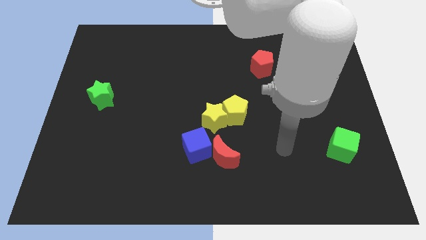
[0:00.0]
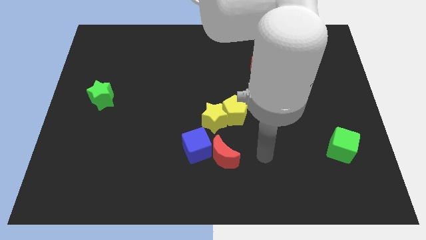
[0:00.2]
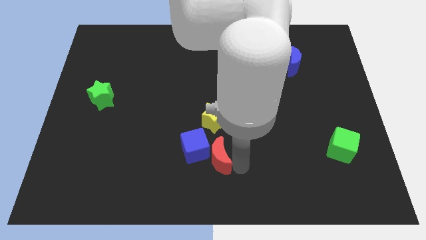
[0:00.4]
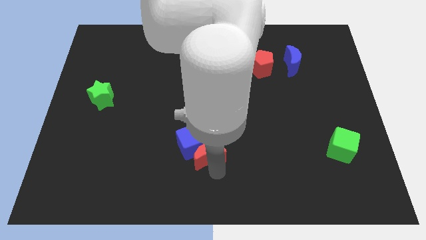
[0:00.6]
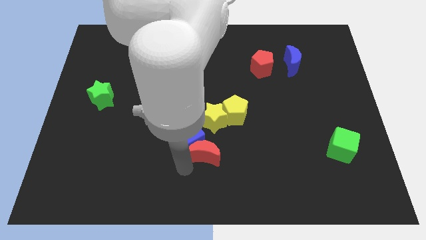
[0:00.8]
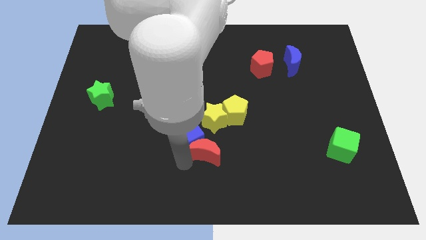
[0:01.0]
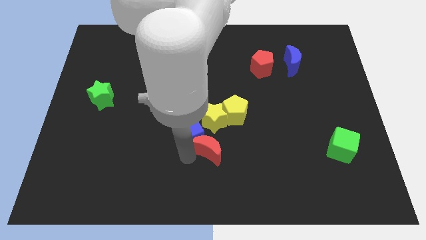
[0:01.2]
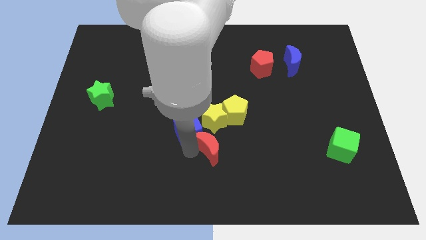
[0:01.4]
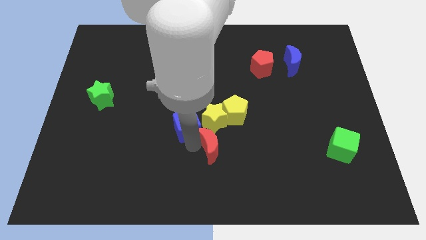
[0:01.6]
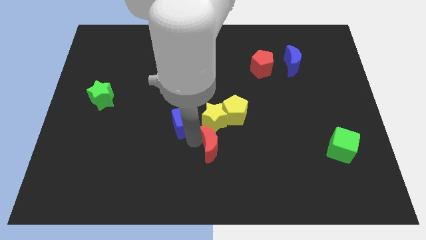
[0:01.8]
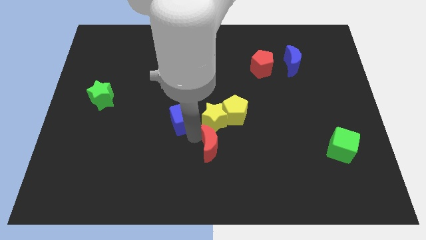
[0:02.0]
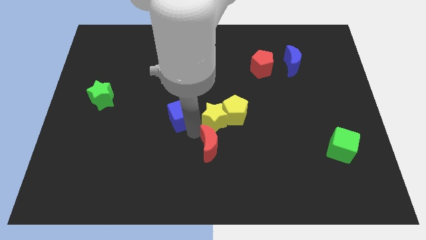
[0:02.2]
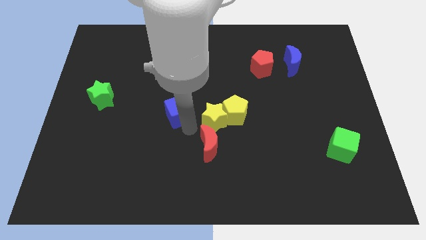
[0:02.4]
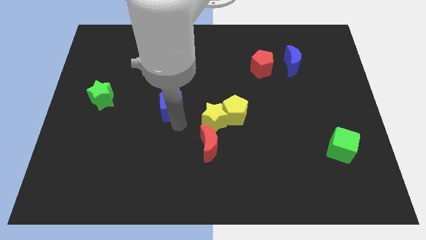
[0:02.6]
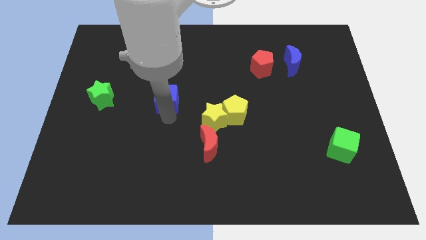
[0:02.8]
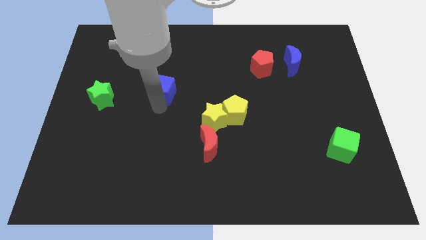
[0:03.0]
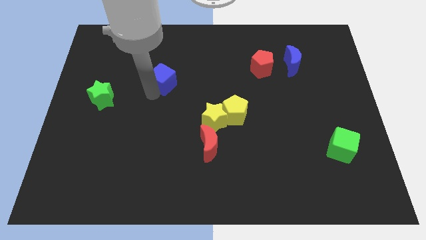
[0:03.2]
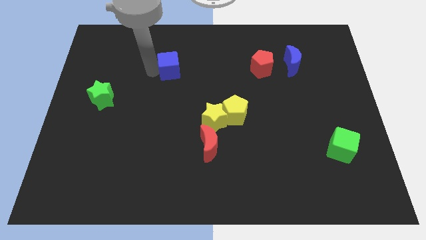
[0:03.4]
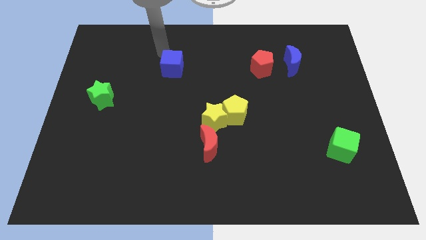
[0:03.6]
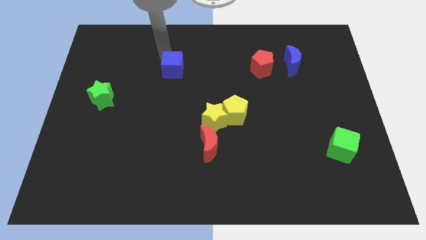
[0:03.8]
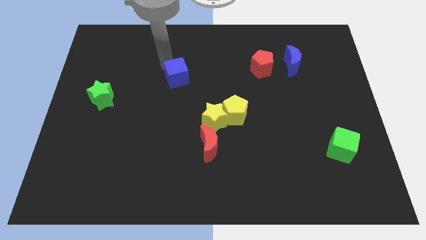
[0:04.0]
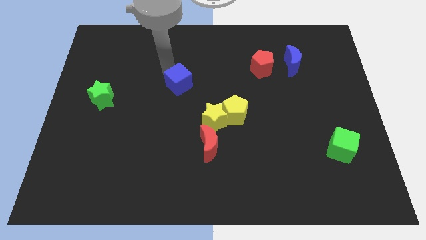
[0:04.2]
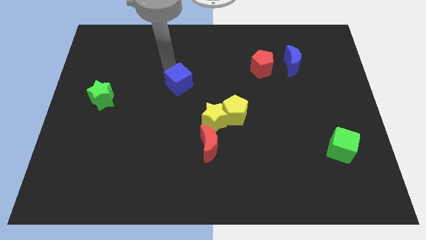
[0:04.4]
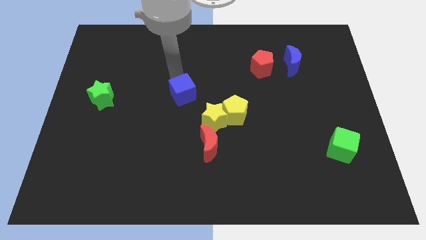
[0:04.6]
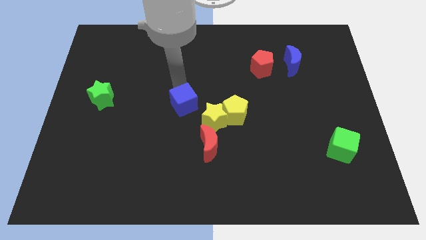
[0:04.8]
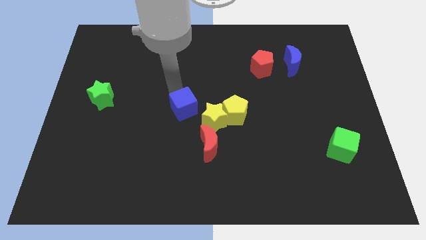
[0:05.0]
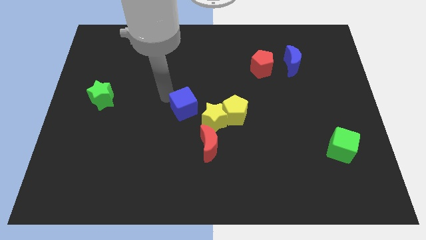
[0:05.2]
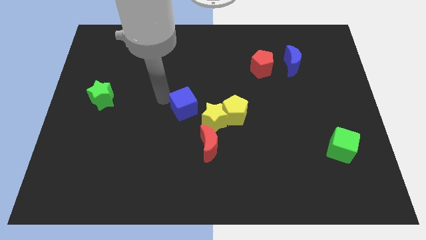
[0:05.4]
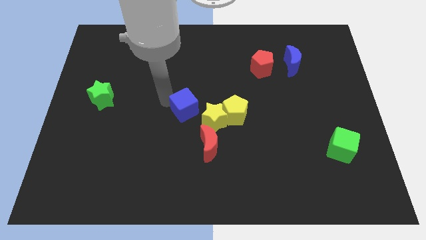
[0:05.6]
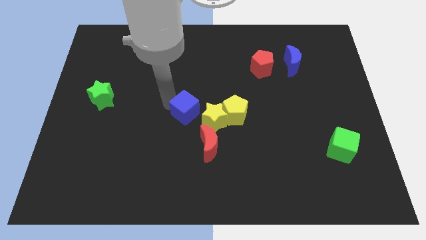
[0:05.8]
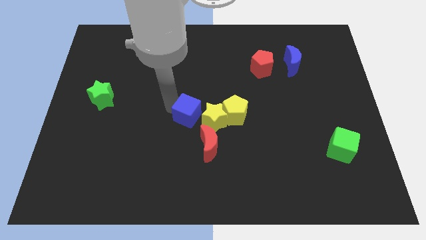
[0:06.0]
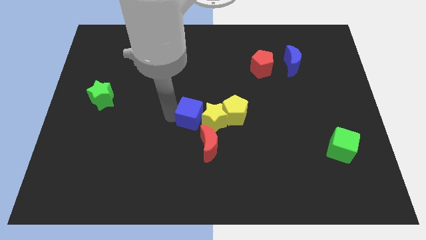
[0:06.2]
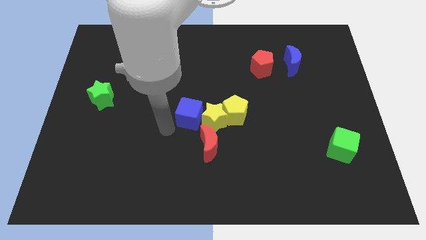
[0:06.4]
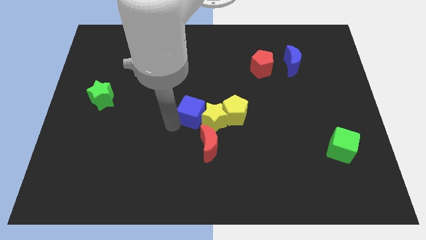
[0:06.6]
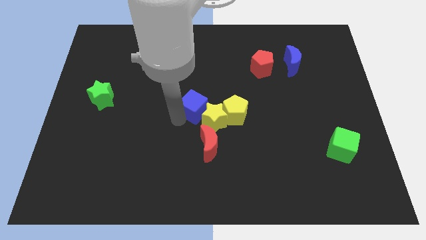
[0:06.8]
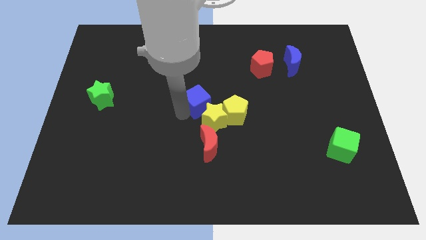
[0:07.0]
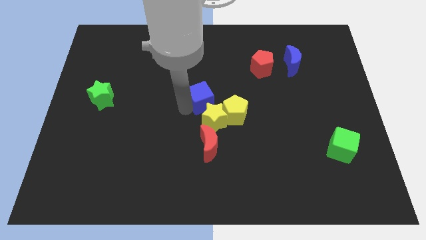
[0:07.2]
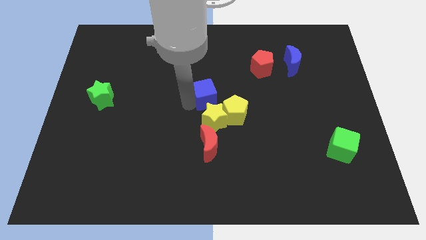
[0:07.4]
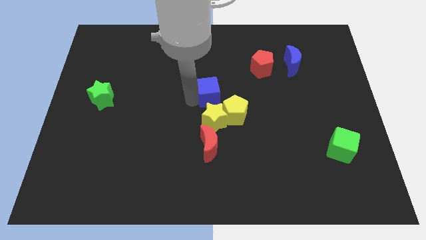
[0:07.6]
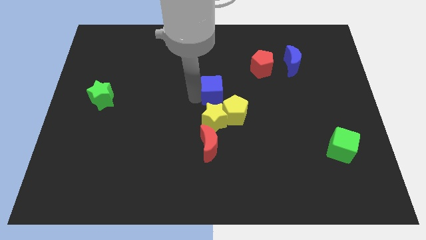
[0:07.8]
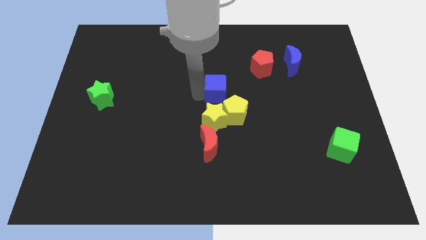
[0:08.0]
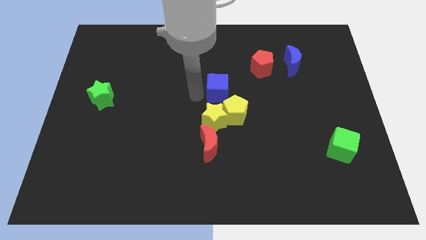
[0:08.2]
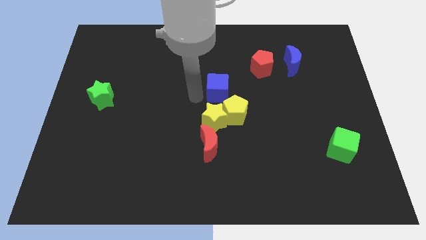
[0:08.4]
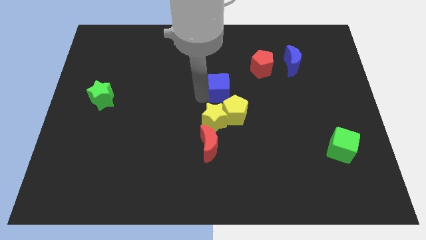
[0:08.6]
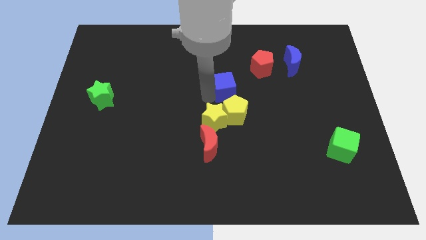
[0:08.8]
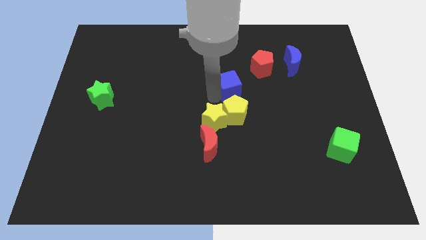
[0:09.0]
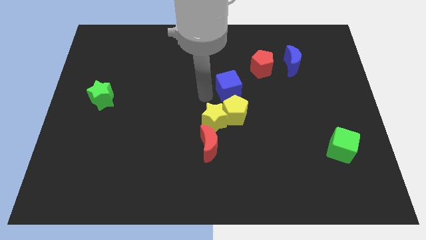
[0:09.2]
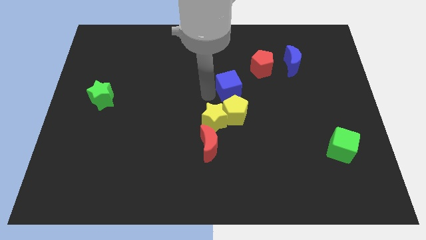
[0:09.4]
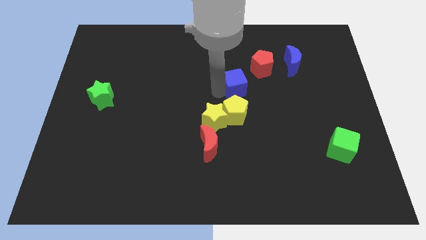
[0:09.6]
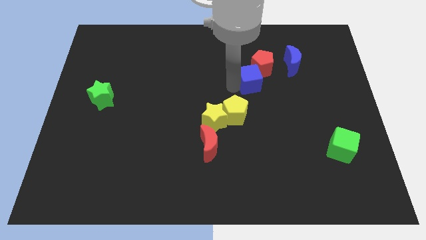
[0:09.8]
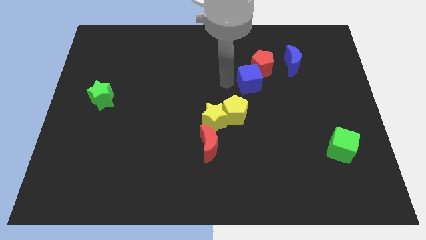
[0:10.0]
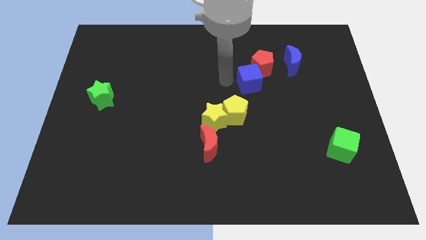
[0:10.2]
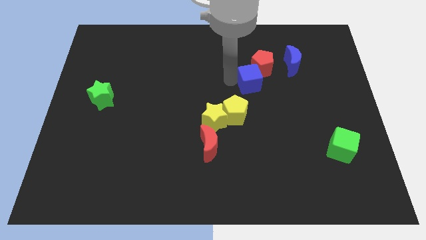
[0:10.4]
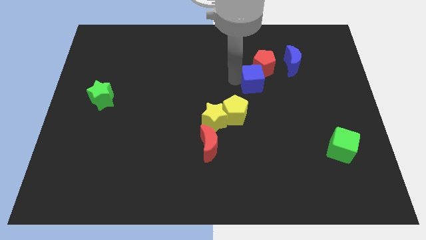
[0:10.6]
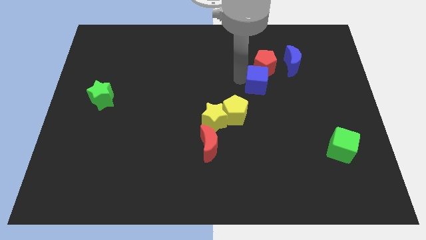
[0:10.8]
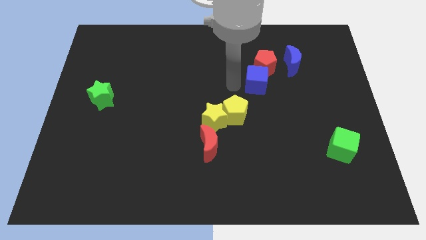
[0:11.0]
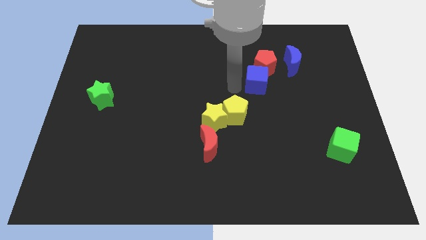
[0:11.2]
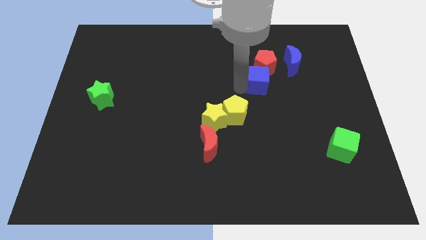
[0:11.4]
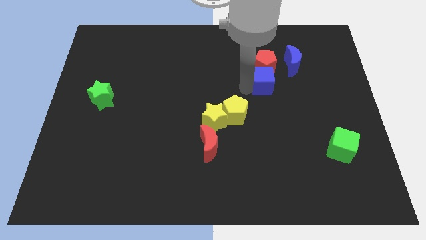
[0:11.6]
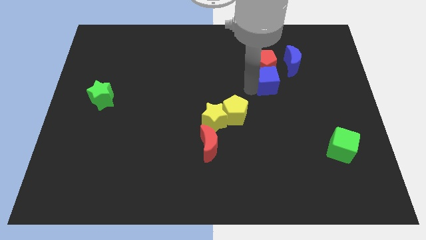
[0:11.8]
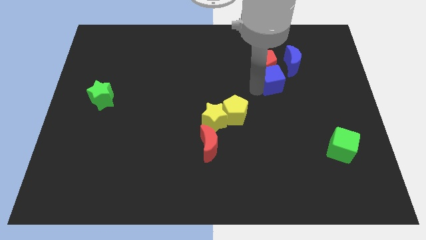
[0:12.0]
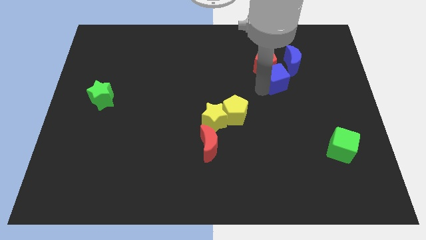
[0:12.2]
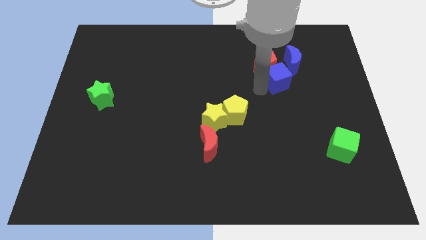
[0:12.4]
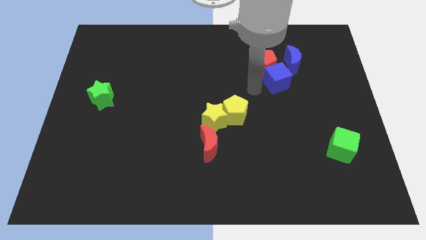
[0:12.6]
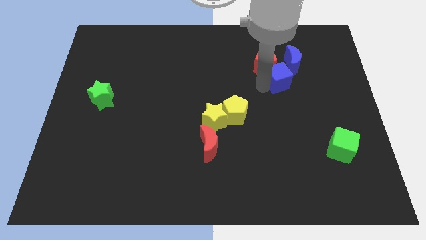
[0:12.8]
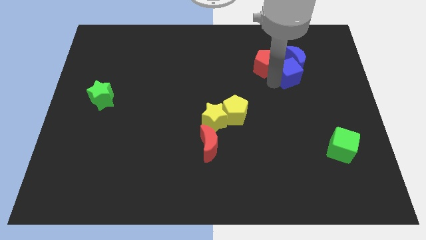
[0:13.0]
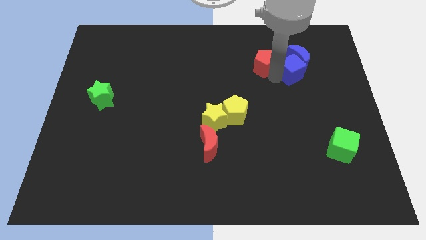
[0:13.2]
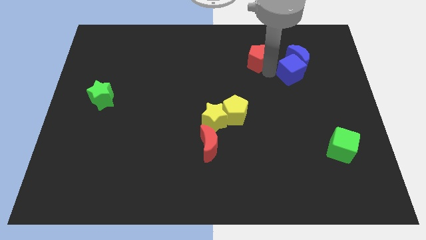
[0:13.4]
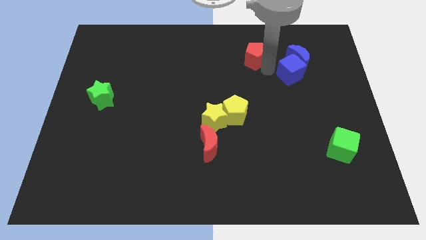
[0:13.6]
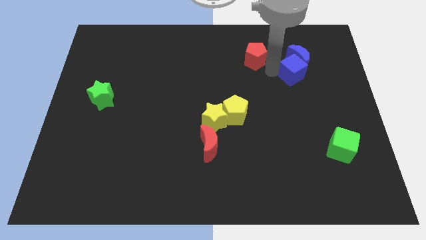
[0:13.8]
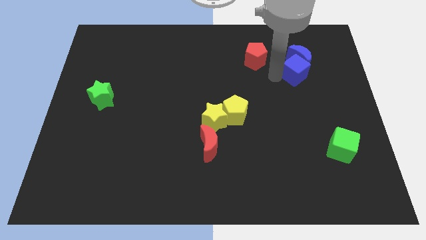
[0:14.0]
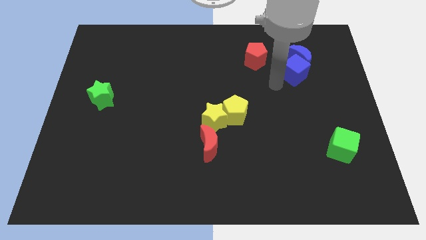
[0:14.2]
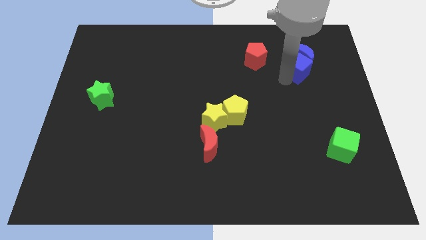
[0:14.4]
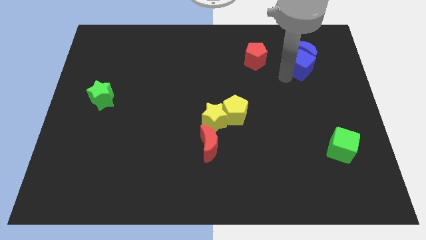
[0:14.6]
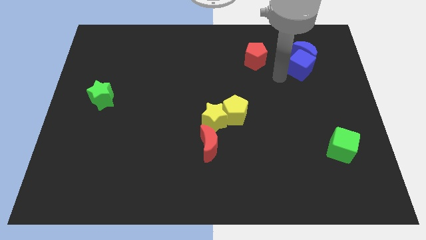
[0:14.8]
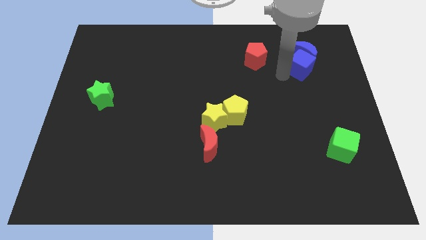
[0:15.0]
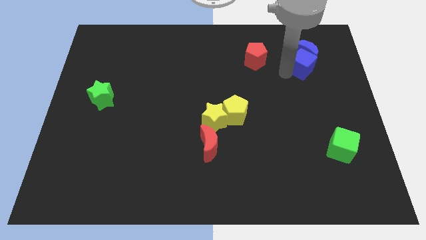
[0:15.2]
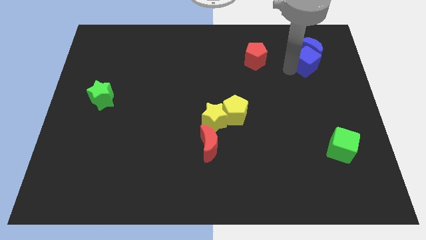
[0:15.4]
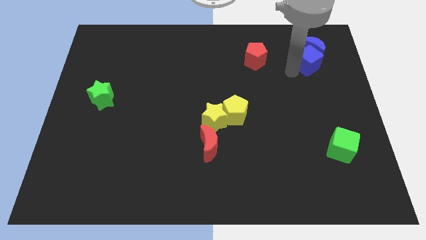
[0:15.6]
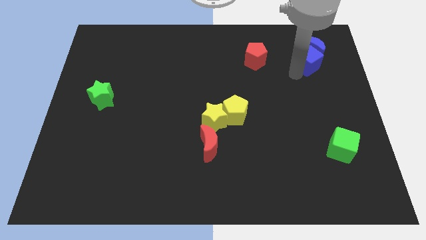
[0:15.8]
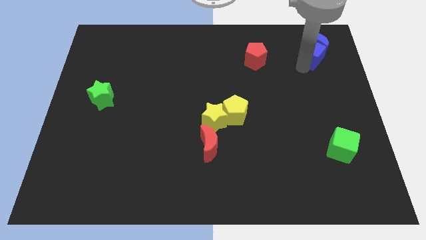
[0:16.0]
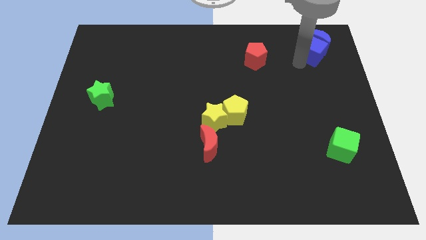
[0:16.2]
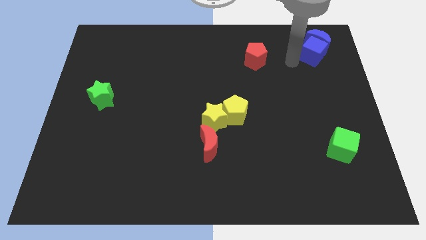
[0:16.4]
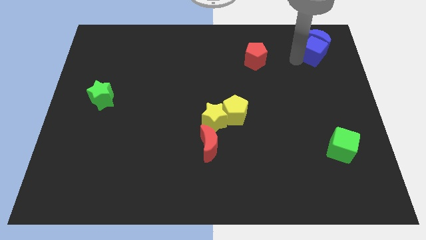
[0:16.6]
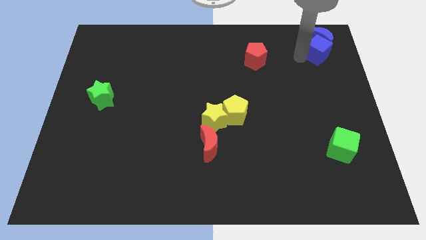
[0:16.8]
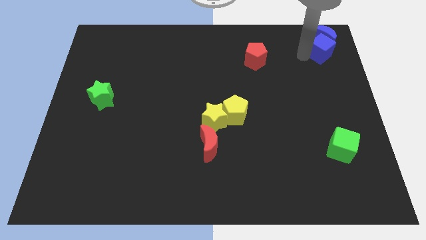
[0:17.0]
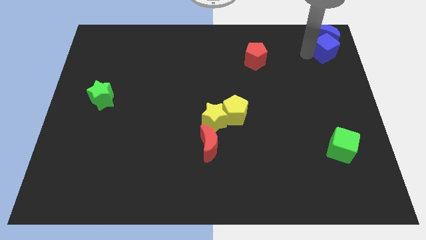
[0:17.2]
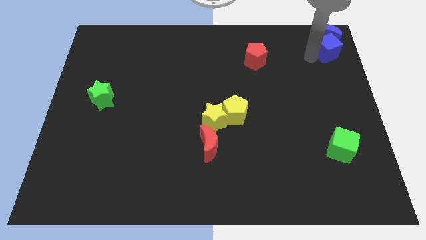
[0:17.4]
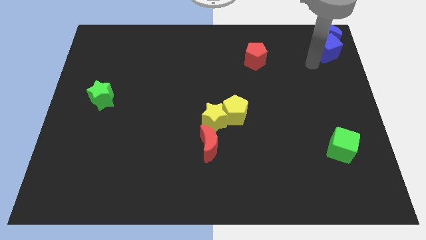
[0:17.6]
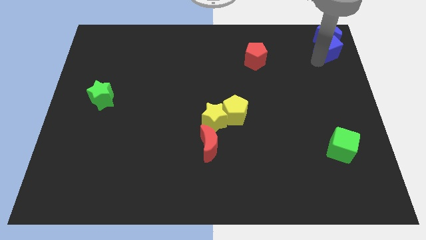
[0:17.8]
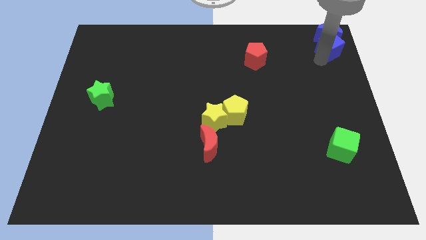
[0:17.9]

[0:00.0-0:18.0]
move the blue cube to the top right
